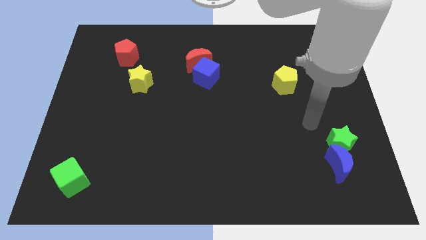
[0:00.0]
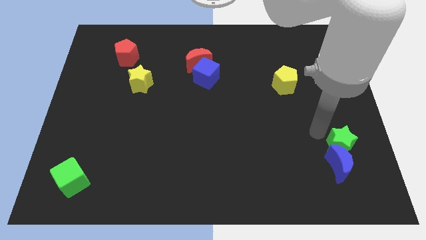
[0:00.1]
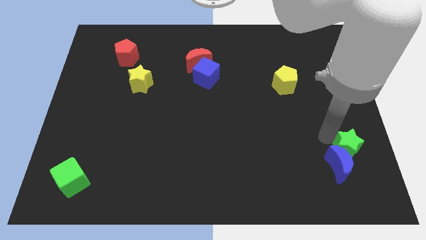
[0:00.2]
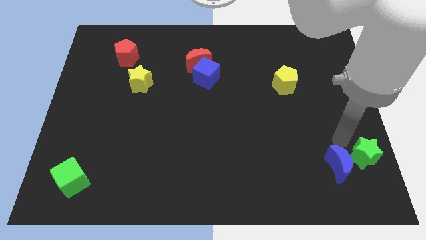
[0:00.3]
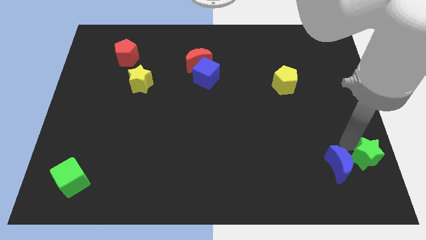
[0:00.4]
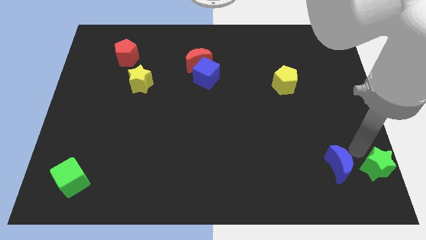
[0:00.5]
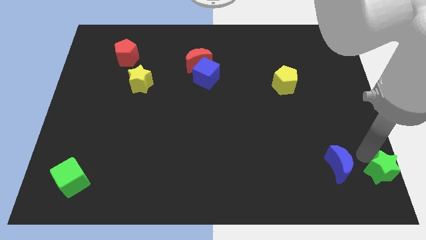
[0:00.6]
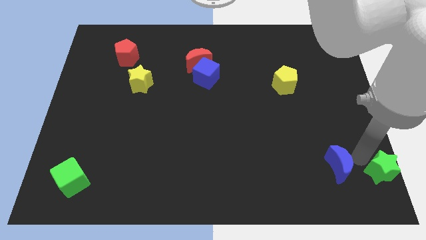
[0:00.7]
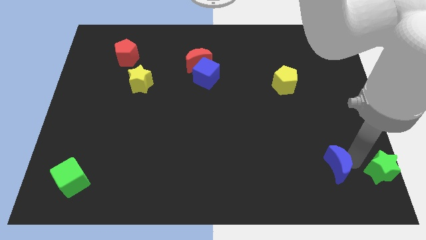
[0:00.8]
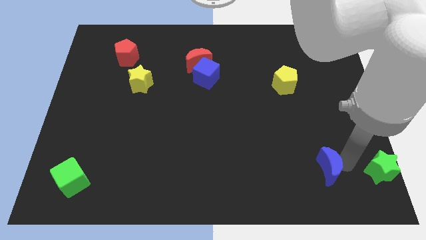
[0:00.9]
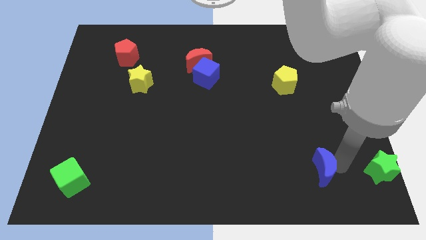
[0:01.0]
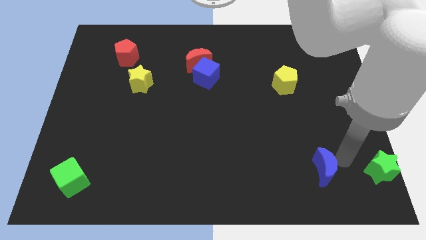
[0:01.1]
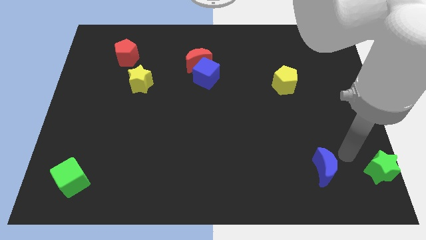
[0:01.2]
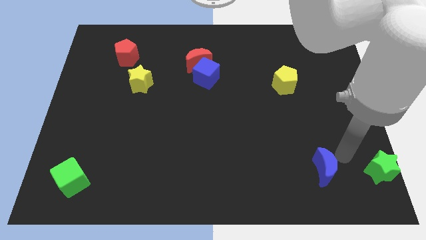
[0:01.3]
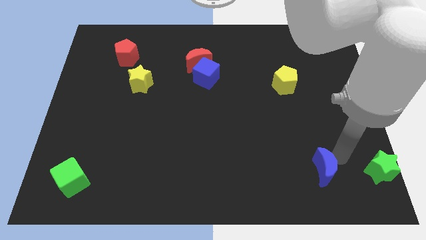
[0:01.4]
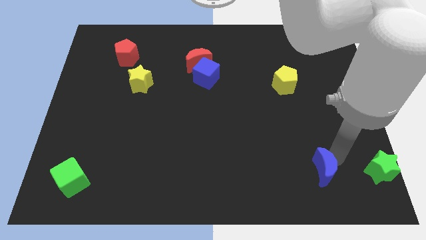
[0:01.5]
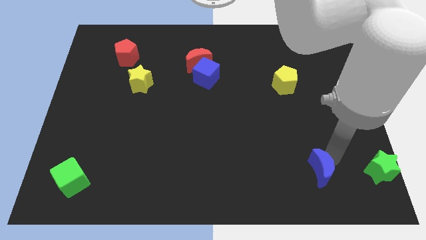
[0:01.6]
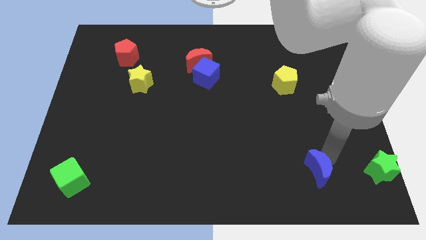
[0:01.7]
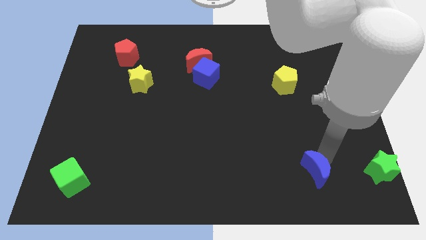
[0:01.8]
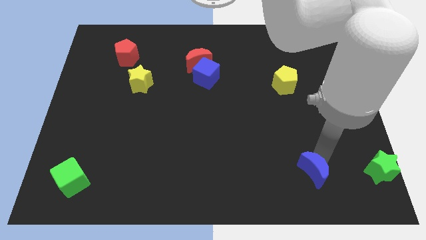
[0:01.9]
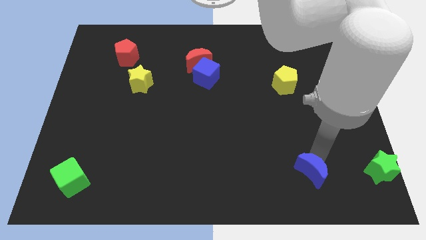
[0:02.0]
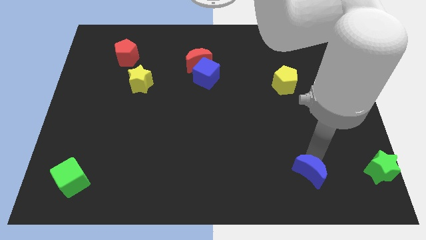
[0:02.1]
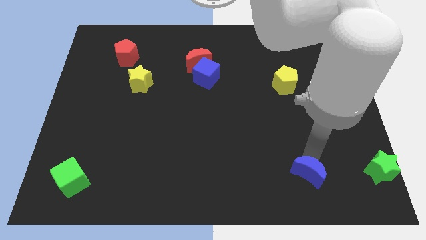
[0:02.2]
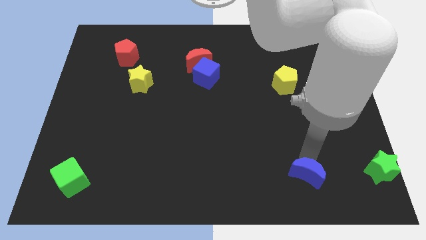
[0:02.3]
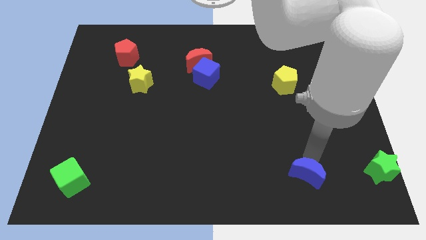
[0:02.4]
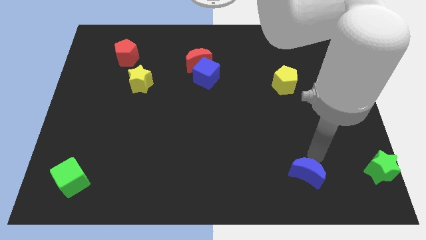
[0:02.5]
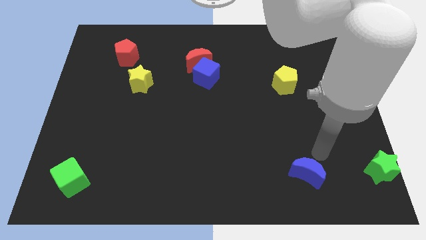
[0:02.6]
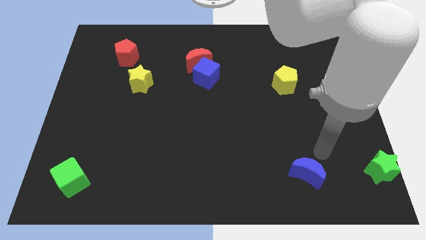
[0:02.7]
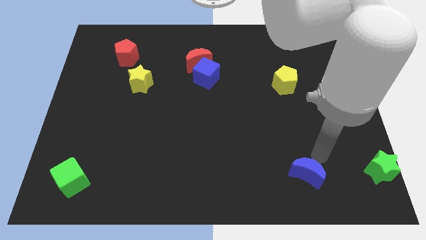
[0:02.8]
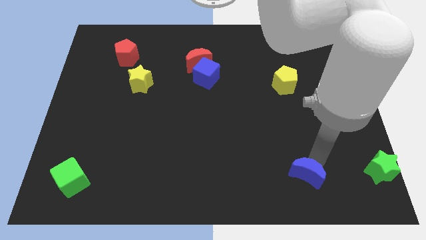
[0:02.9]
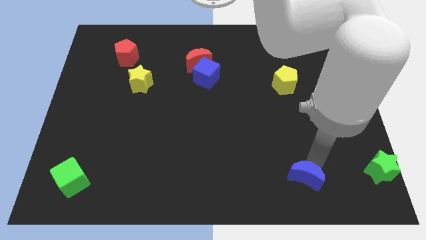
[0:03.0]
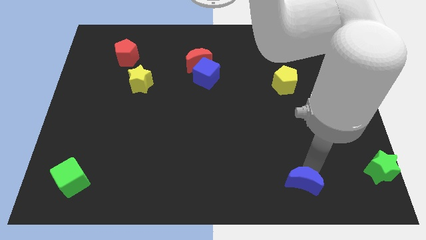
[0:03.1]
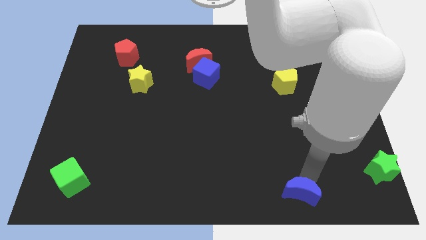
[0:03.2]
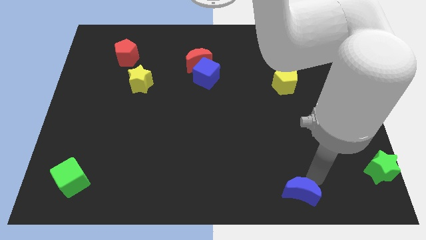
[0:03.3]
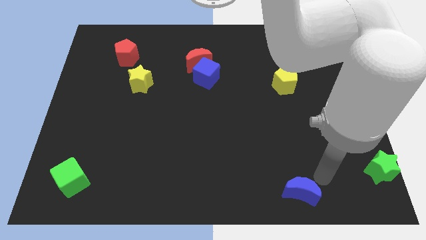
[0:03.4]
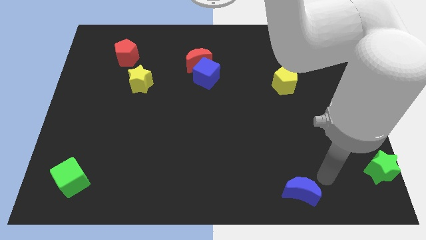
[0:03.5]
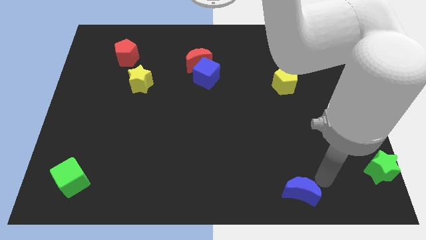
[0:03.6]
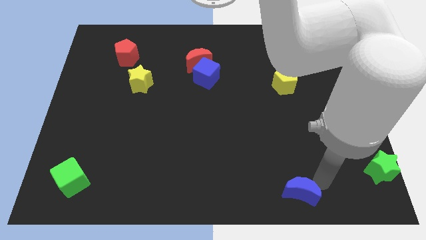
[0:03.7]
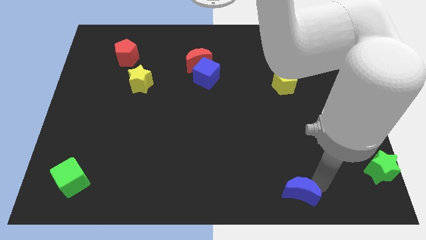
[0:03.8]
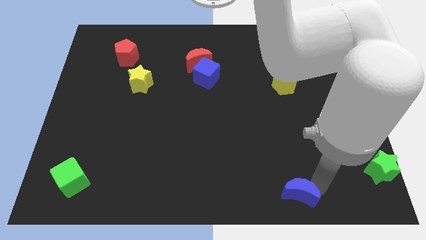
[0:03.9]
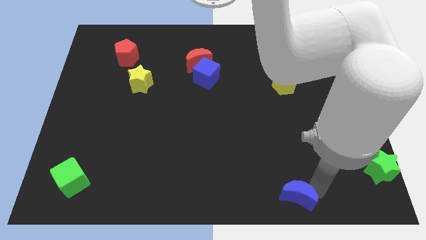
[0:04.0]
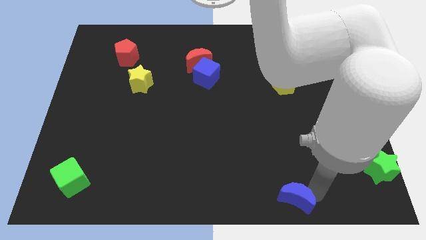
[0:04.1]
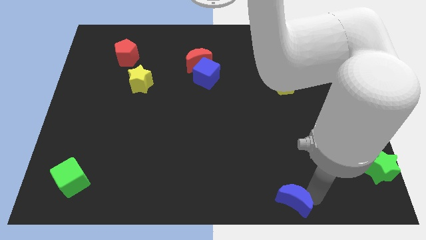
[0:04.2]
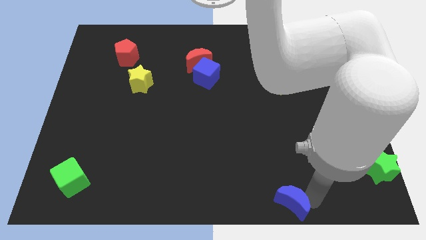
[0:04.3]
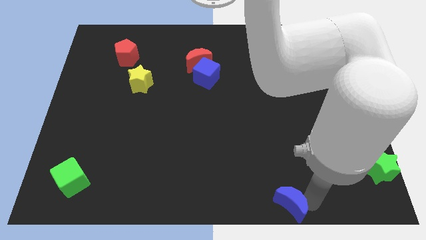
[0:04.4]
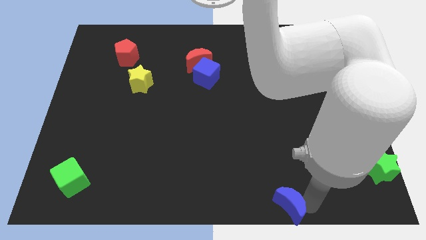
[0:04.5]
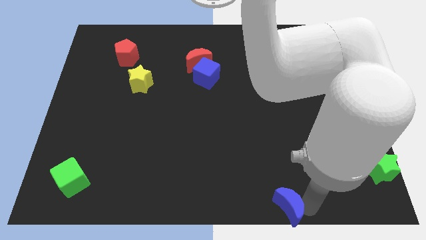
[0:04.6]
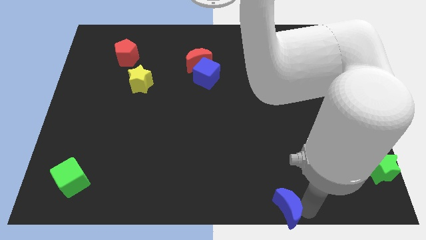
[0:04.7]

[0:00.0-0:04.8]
slide the blue moon to the bottom side

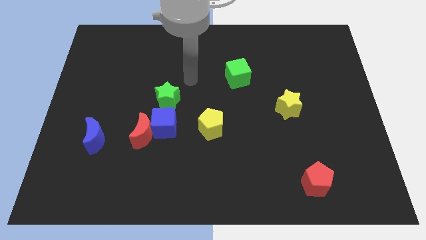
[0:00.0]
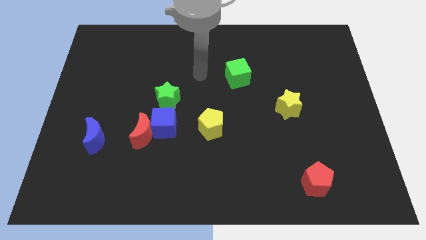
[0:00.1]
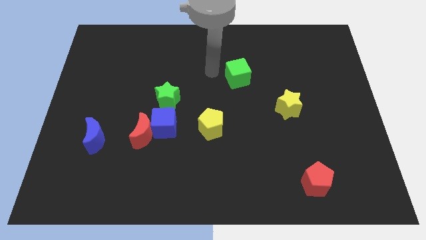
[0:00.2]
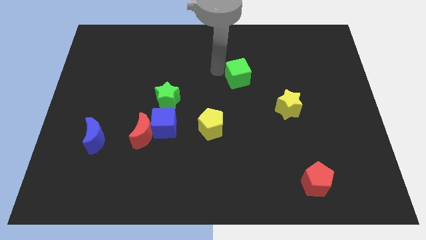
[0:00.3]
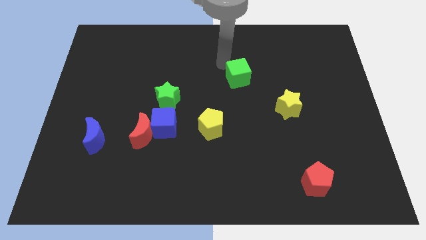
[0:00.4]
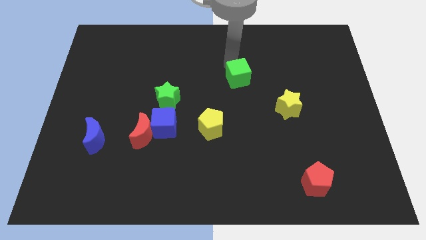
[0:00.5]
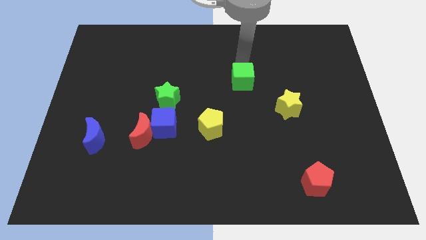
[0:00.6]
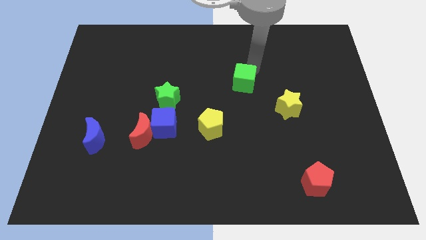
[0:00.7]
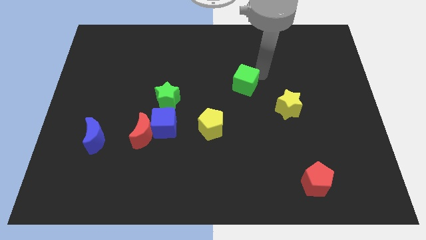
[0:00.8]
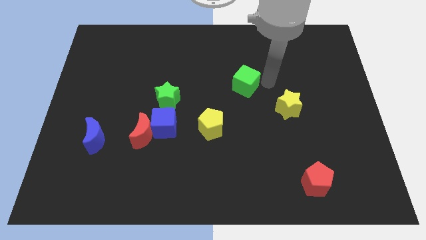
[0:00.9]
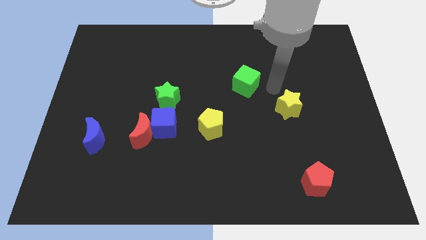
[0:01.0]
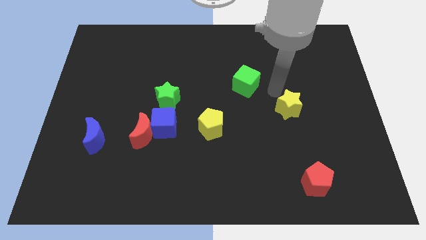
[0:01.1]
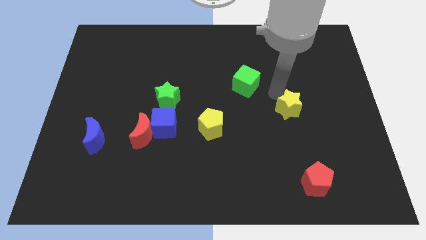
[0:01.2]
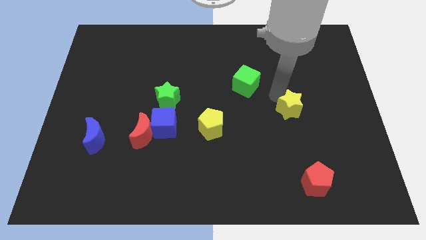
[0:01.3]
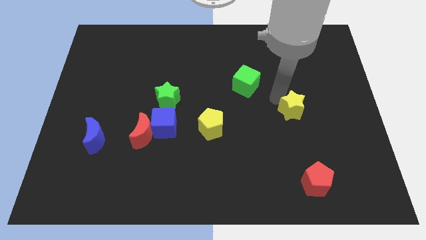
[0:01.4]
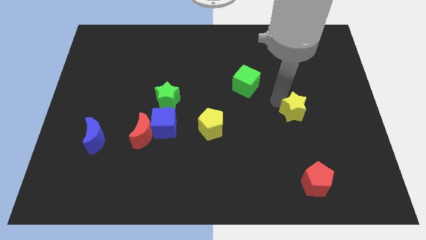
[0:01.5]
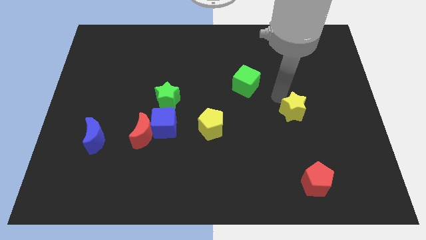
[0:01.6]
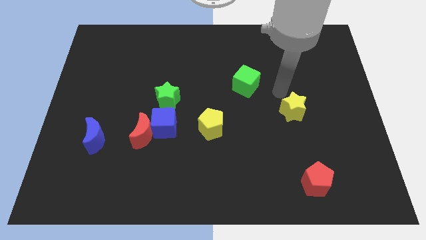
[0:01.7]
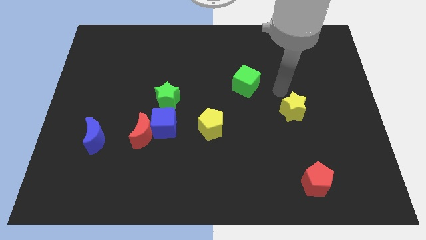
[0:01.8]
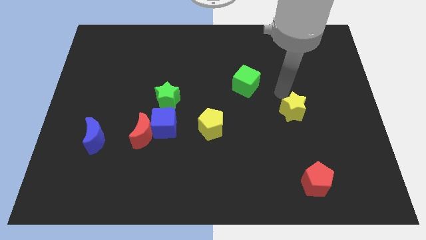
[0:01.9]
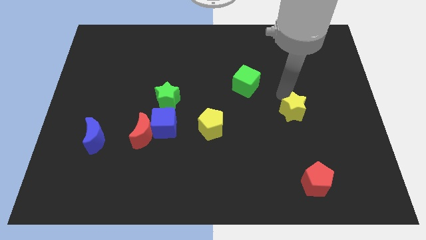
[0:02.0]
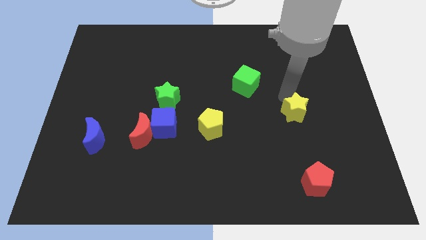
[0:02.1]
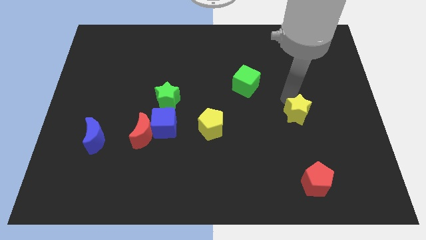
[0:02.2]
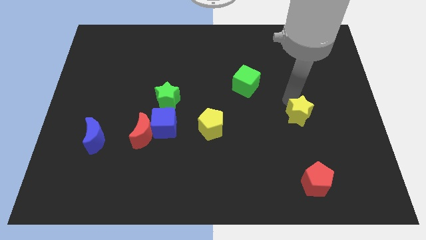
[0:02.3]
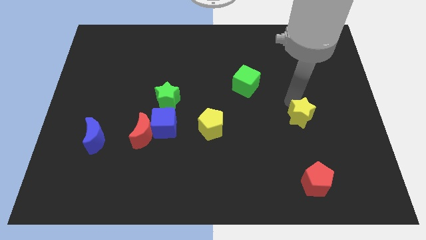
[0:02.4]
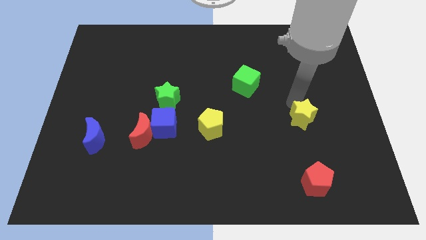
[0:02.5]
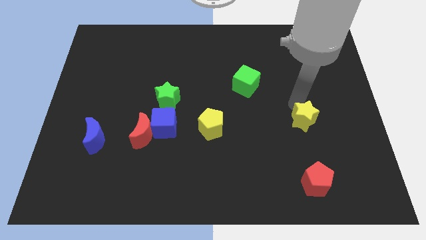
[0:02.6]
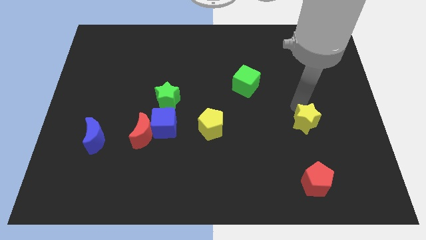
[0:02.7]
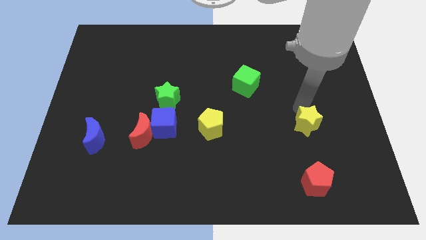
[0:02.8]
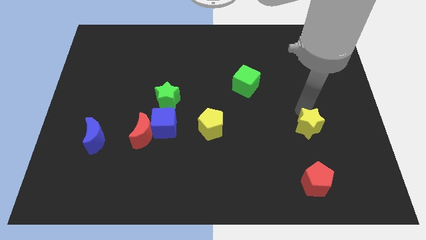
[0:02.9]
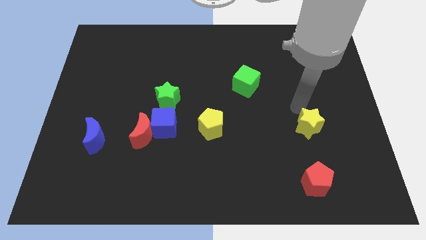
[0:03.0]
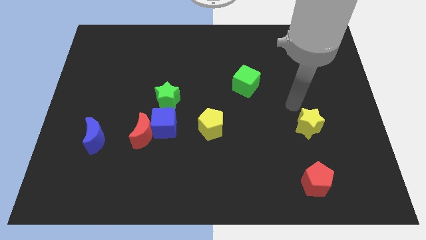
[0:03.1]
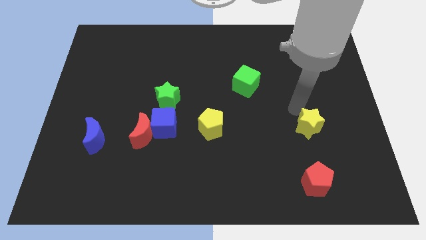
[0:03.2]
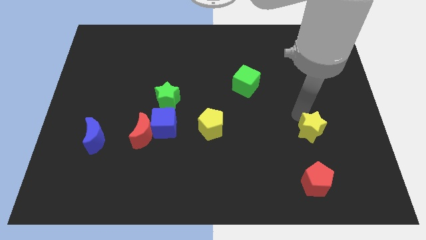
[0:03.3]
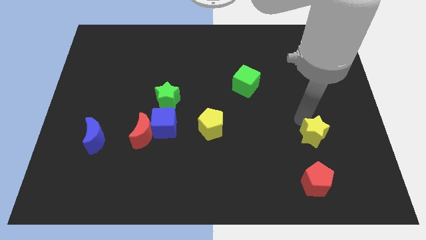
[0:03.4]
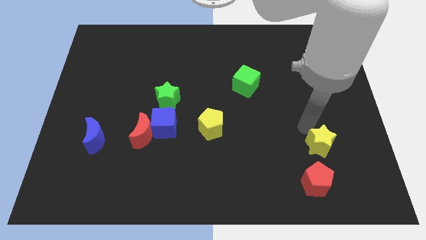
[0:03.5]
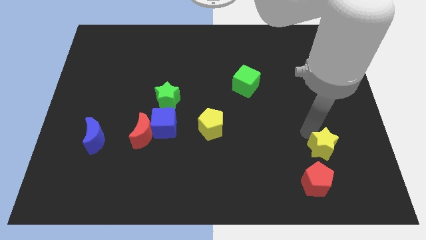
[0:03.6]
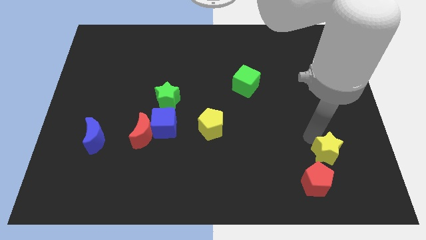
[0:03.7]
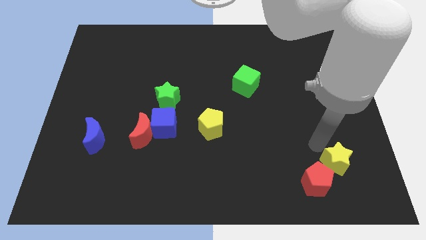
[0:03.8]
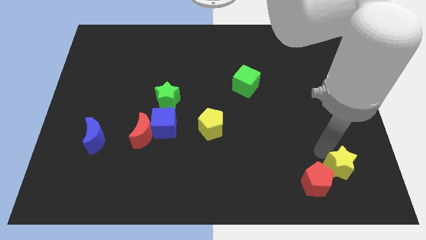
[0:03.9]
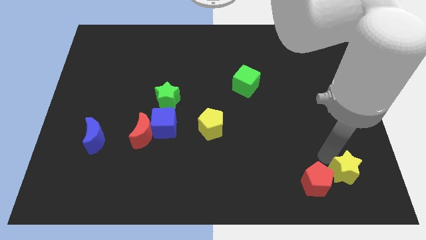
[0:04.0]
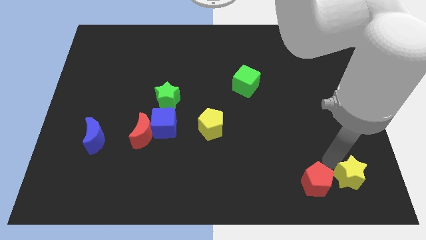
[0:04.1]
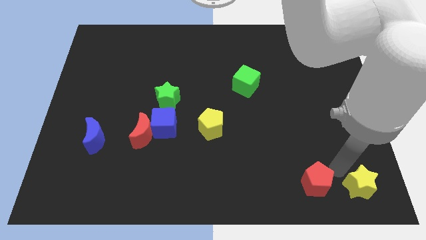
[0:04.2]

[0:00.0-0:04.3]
slide the yellow star to the bottom right corner
